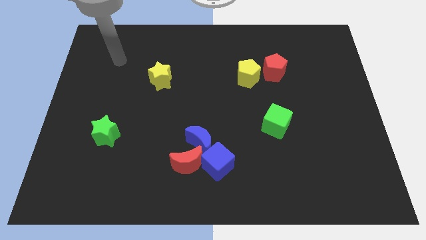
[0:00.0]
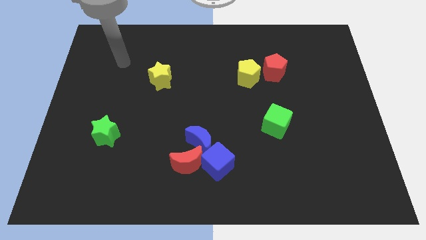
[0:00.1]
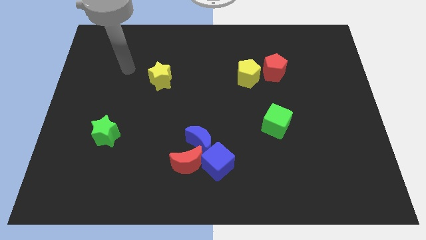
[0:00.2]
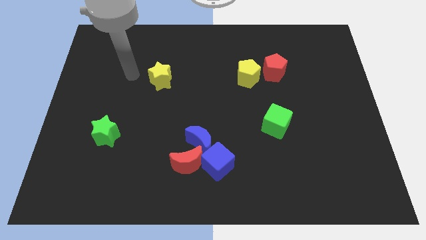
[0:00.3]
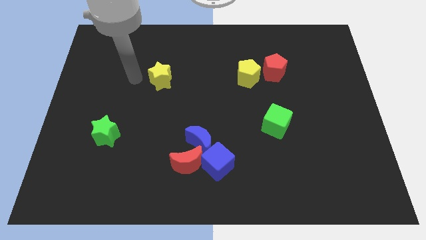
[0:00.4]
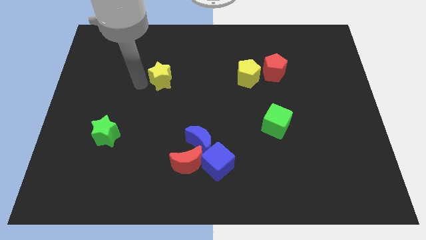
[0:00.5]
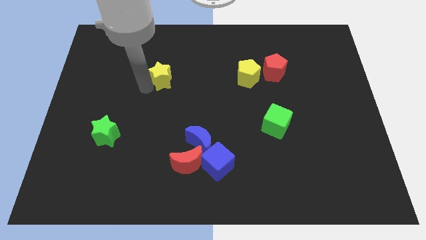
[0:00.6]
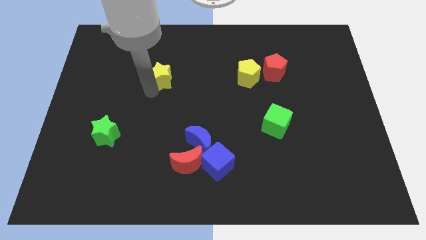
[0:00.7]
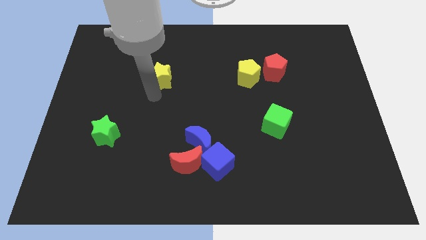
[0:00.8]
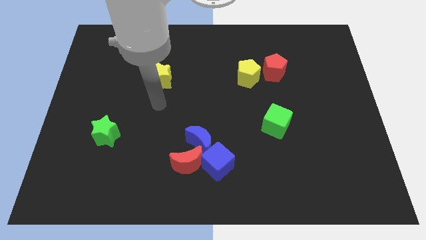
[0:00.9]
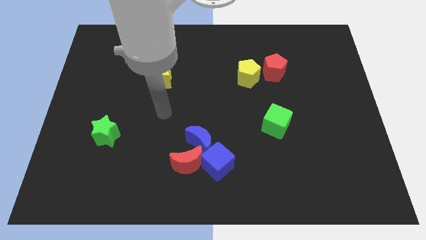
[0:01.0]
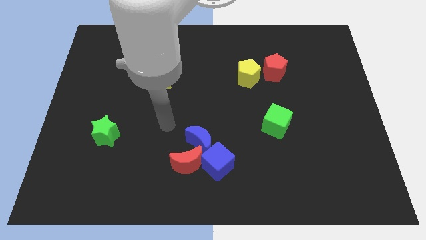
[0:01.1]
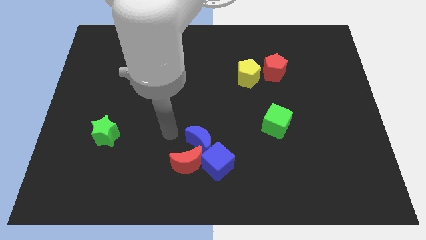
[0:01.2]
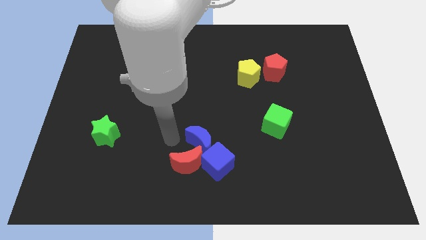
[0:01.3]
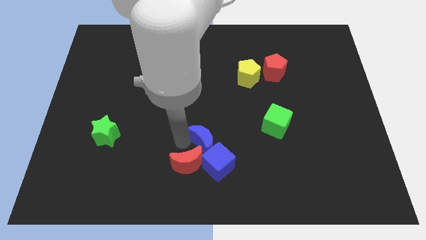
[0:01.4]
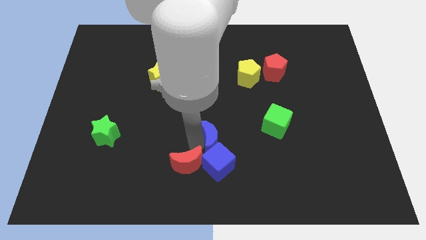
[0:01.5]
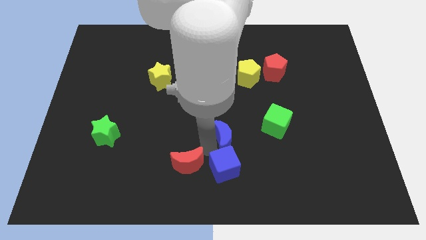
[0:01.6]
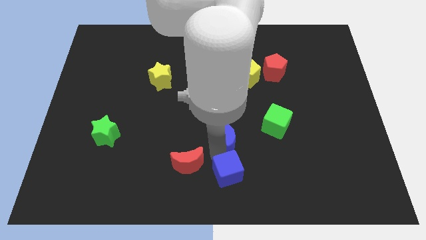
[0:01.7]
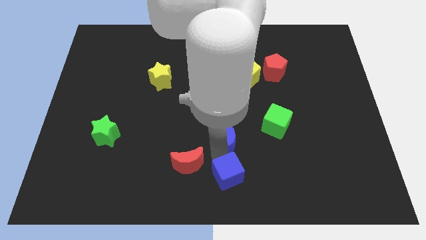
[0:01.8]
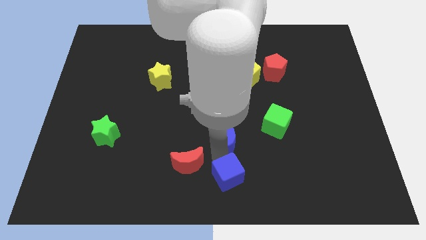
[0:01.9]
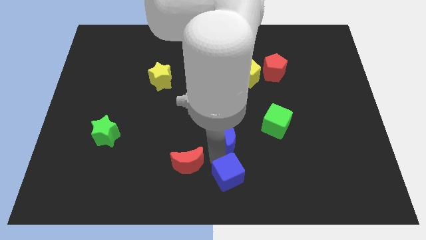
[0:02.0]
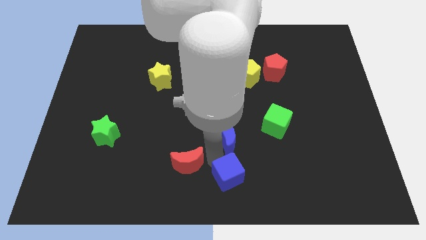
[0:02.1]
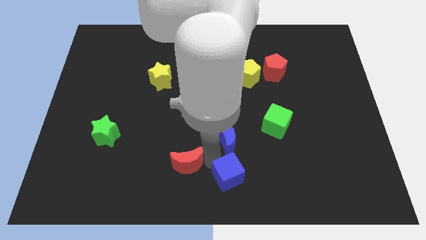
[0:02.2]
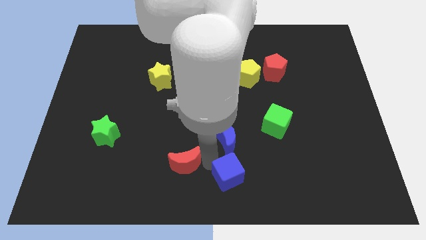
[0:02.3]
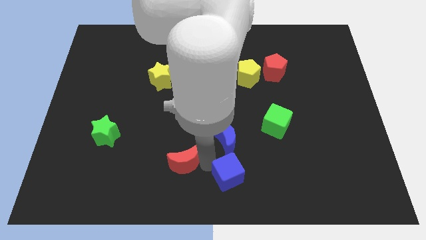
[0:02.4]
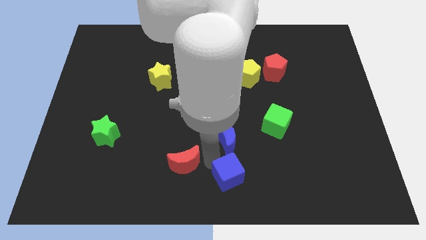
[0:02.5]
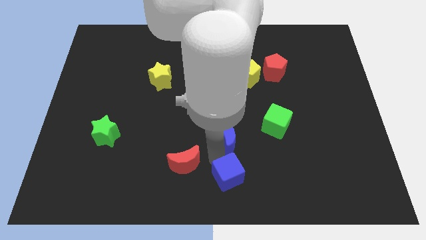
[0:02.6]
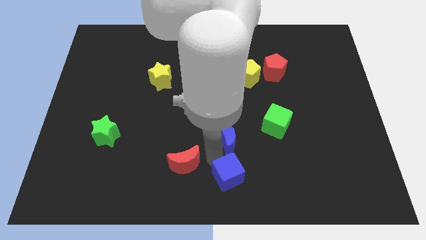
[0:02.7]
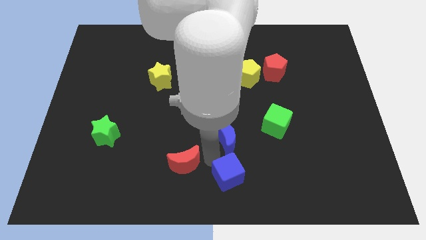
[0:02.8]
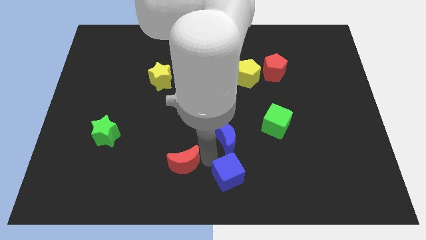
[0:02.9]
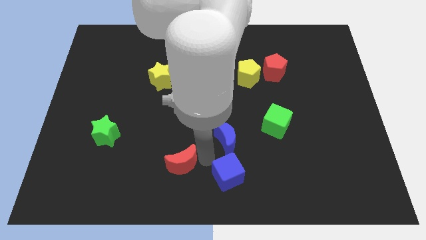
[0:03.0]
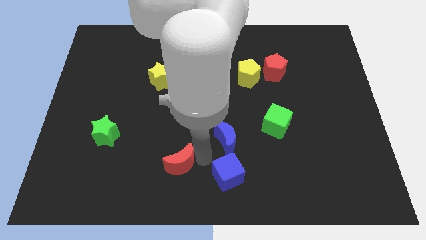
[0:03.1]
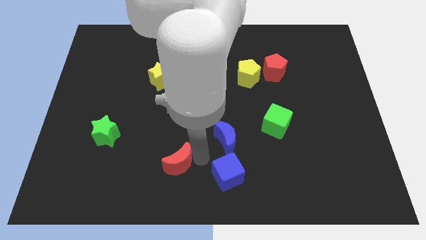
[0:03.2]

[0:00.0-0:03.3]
pull the red moon apart from the blue moon and blue cube

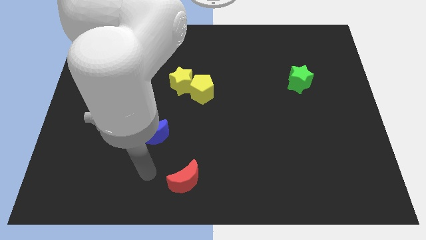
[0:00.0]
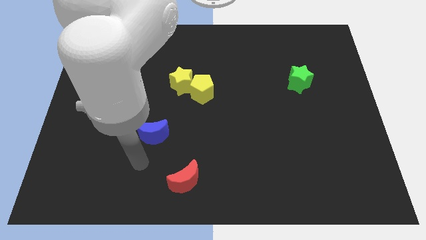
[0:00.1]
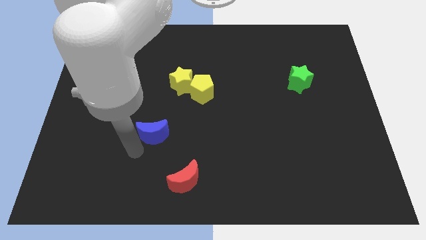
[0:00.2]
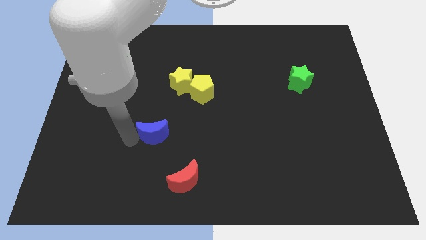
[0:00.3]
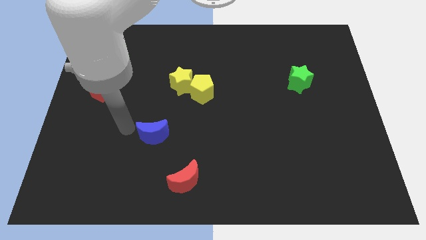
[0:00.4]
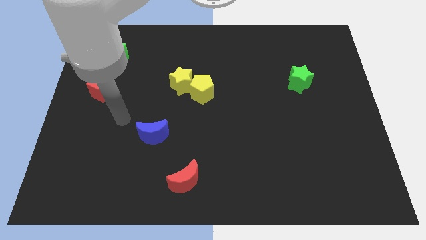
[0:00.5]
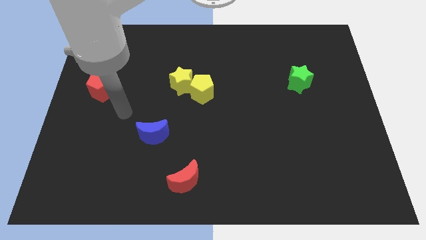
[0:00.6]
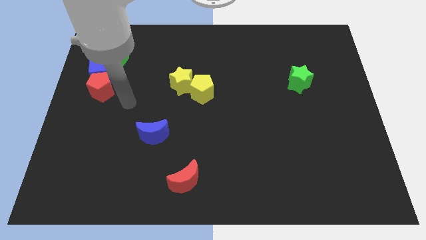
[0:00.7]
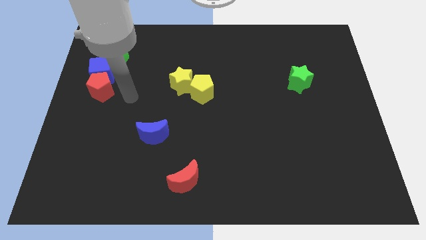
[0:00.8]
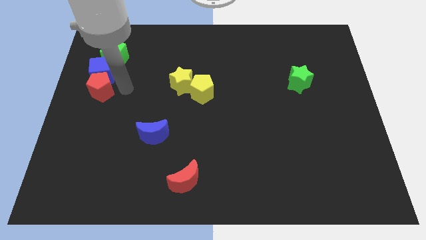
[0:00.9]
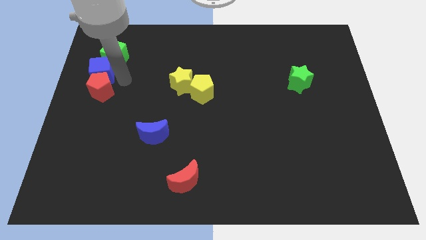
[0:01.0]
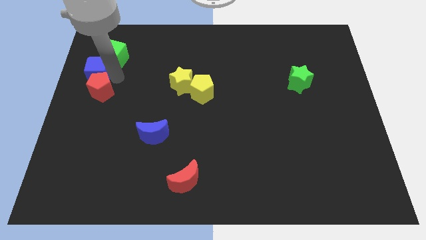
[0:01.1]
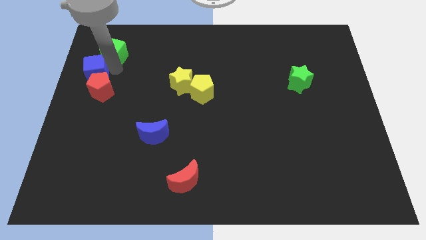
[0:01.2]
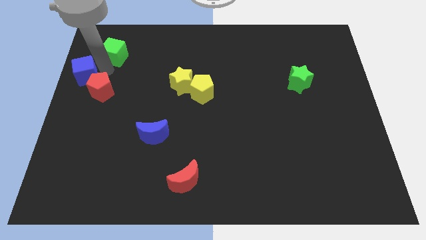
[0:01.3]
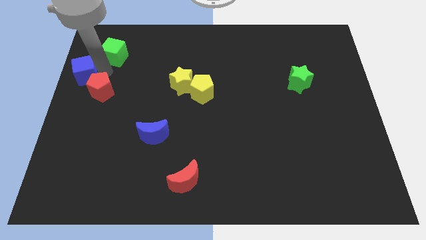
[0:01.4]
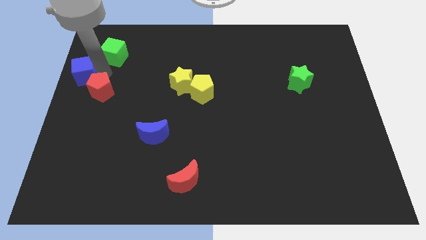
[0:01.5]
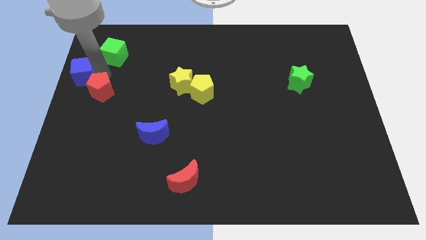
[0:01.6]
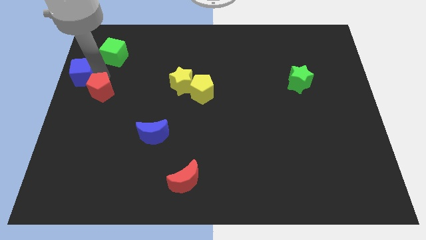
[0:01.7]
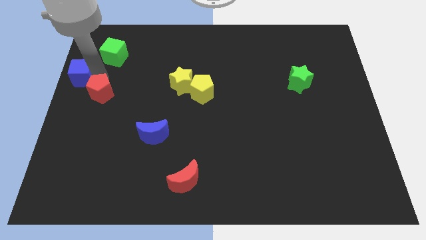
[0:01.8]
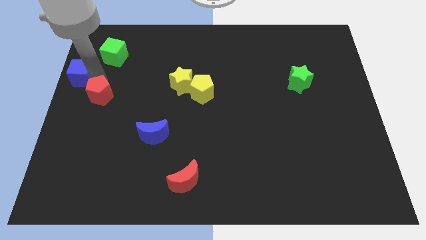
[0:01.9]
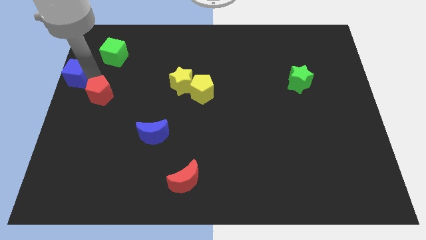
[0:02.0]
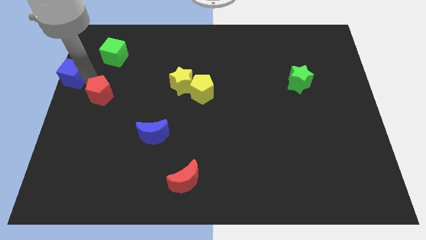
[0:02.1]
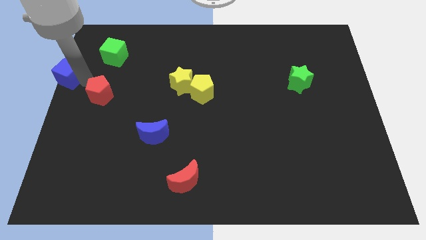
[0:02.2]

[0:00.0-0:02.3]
pull the red pentagon apart from the blue cube

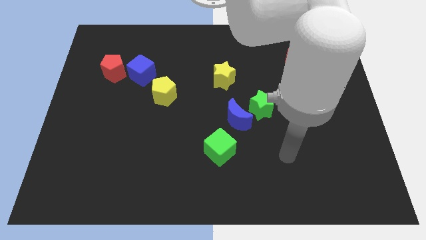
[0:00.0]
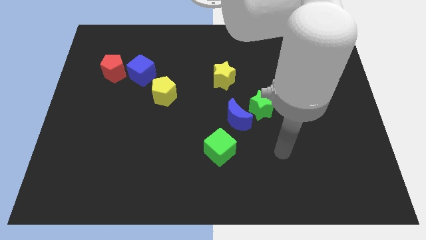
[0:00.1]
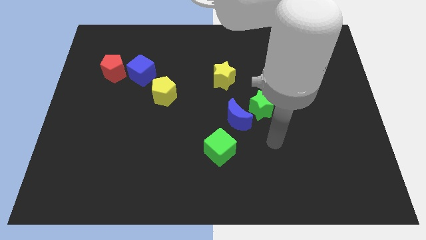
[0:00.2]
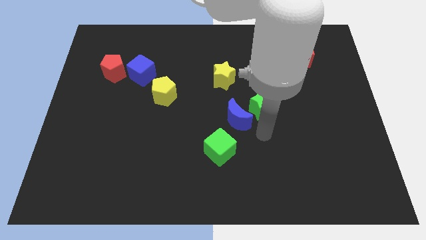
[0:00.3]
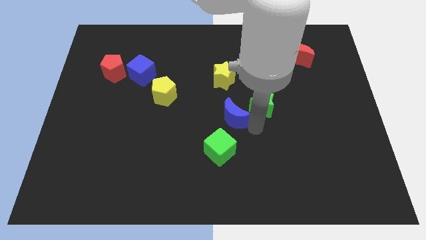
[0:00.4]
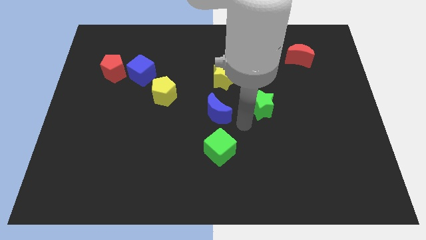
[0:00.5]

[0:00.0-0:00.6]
separate the green star from the blue moon

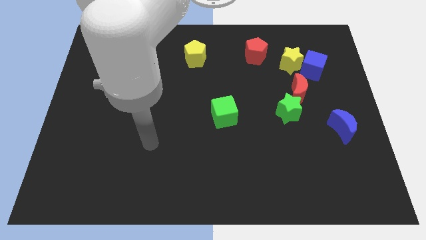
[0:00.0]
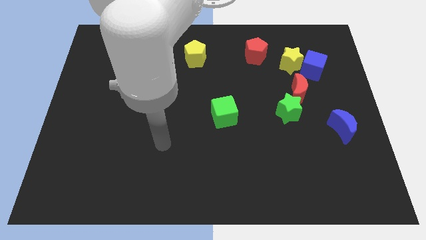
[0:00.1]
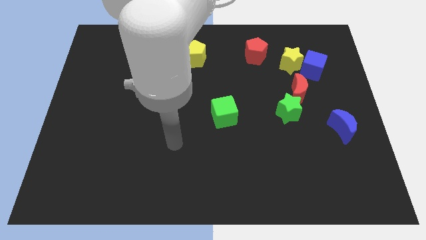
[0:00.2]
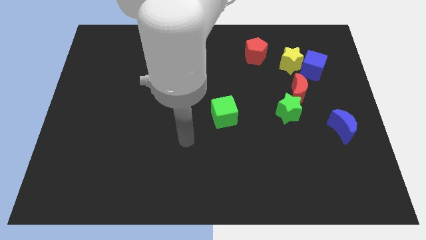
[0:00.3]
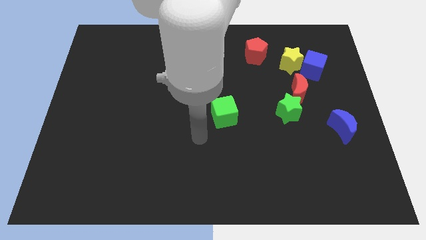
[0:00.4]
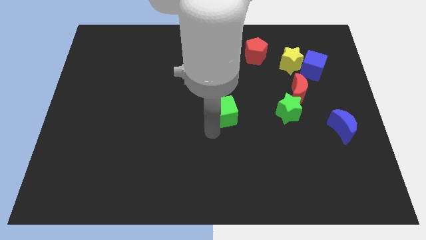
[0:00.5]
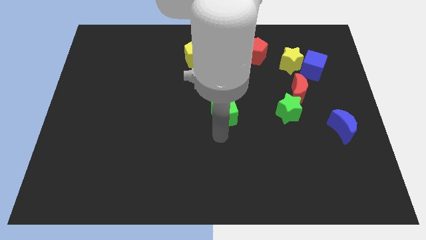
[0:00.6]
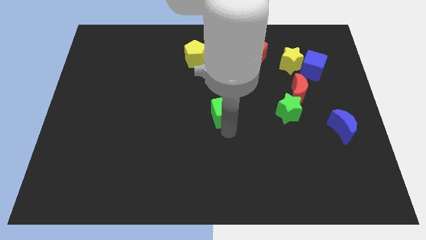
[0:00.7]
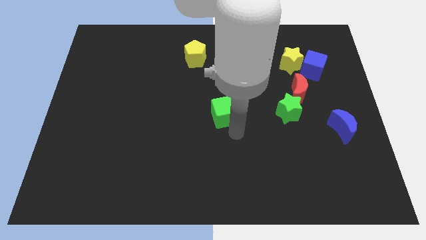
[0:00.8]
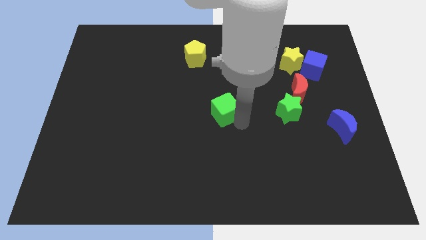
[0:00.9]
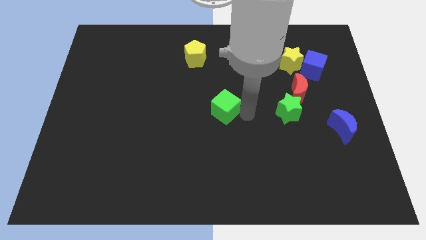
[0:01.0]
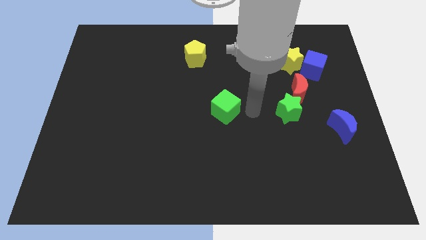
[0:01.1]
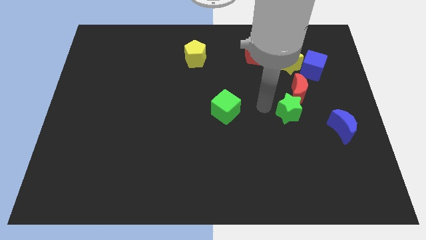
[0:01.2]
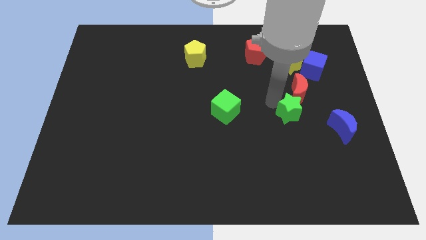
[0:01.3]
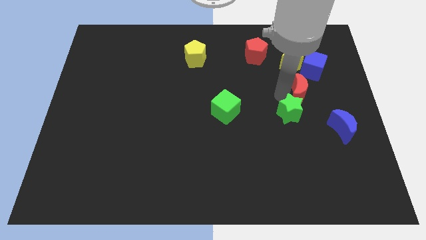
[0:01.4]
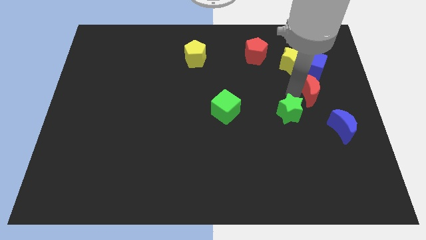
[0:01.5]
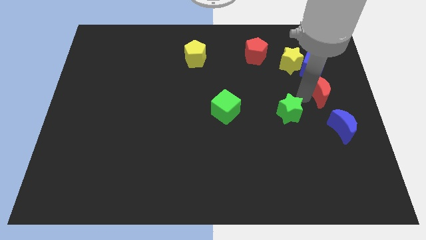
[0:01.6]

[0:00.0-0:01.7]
move the green star away from the red moon

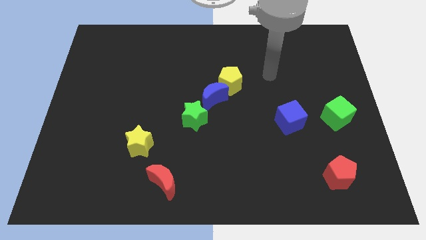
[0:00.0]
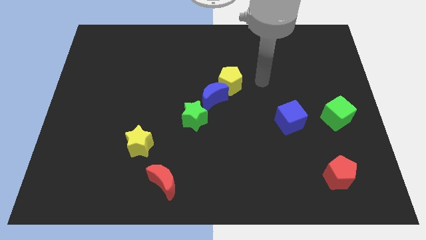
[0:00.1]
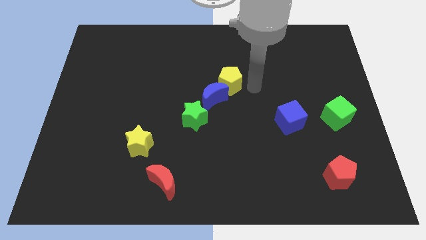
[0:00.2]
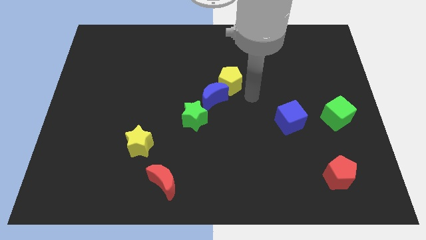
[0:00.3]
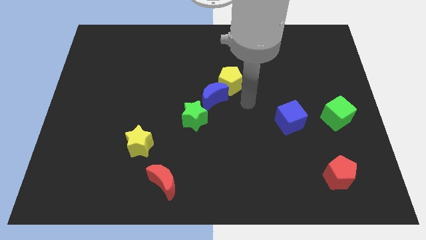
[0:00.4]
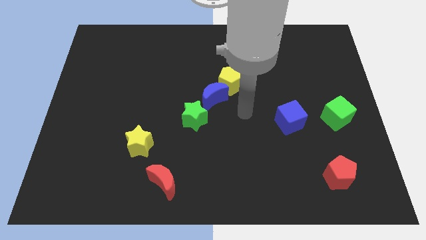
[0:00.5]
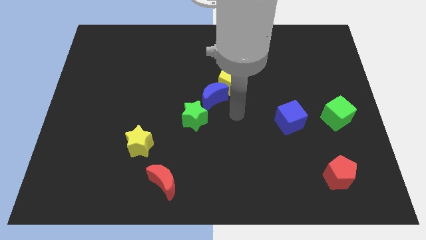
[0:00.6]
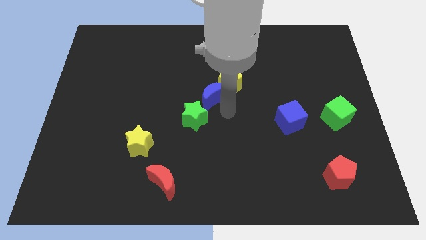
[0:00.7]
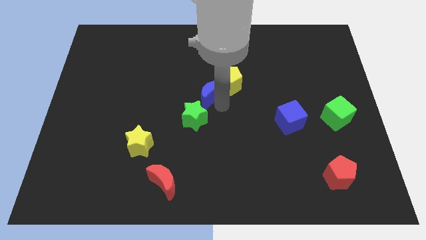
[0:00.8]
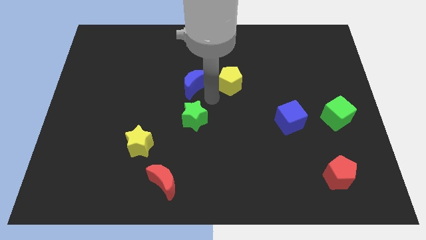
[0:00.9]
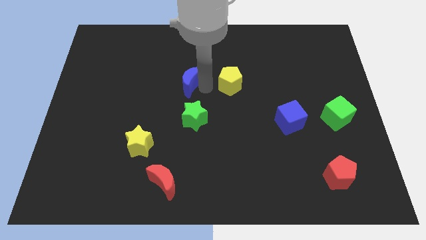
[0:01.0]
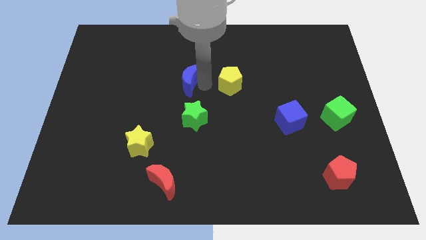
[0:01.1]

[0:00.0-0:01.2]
move the yellow pentagon away from the blue moon
